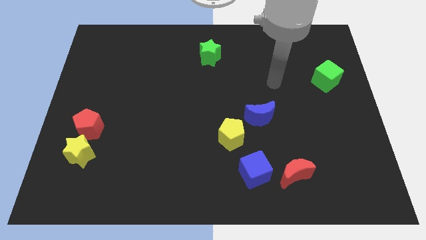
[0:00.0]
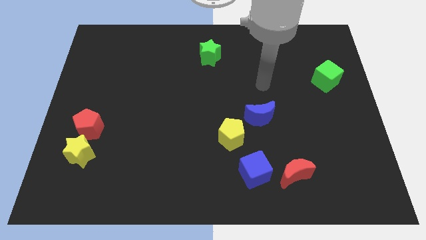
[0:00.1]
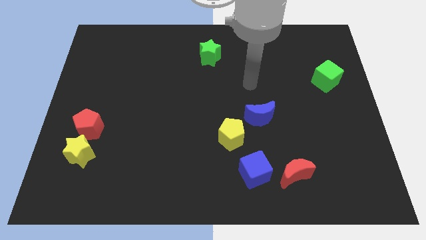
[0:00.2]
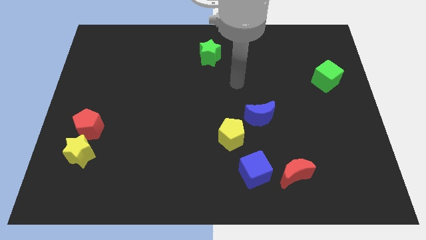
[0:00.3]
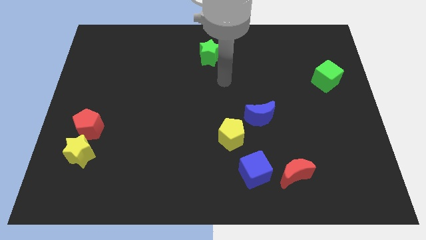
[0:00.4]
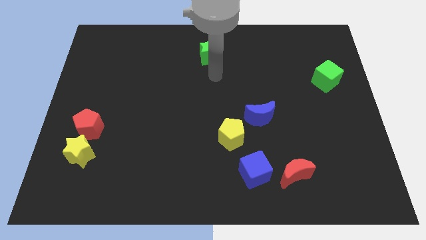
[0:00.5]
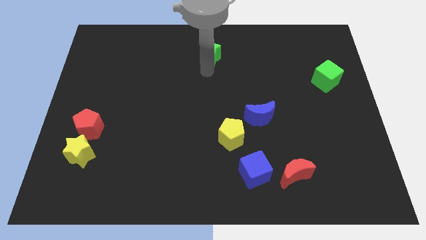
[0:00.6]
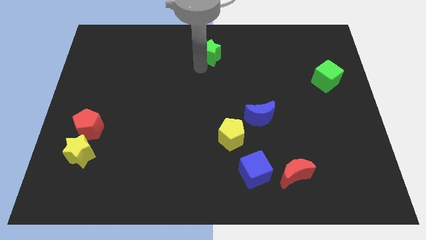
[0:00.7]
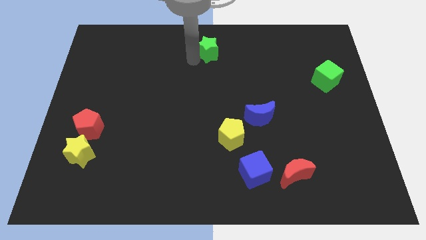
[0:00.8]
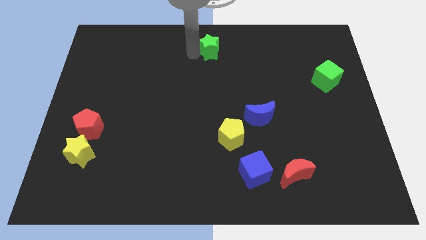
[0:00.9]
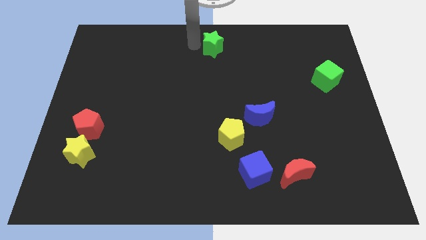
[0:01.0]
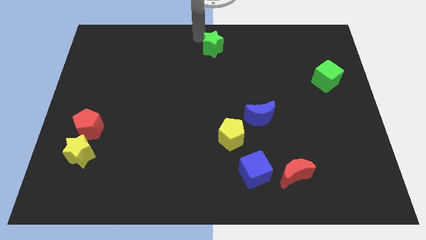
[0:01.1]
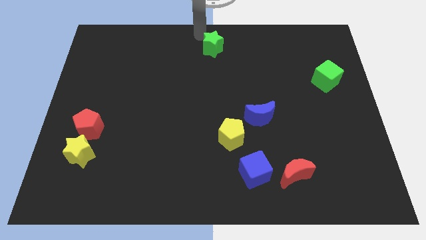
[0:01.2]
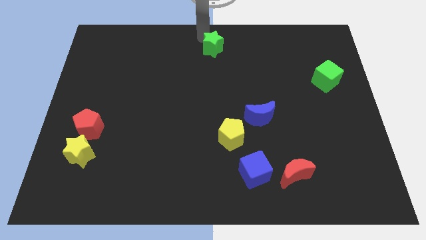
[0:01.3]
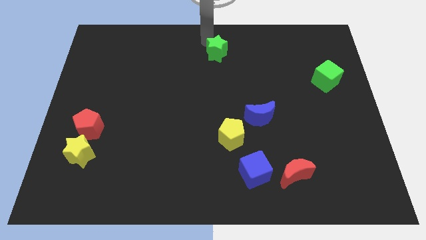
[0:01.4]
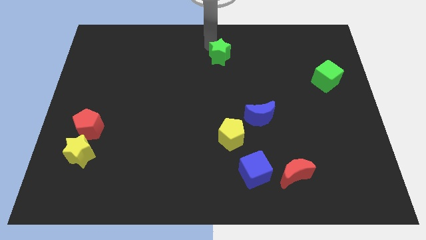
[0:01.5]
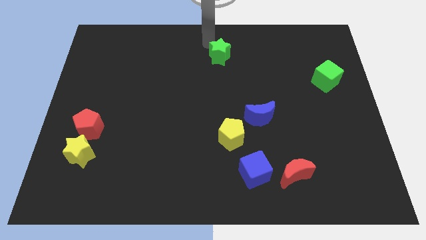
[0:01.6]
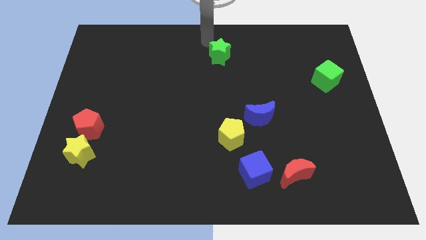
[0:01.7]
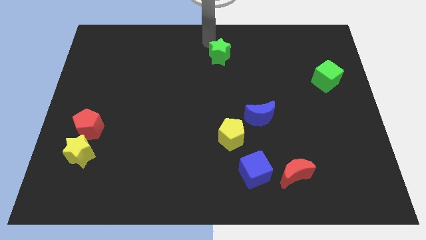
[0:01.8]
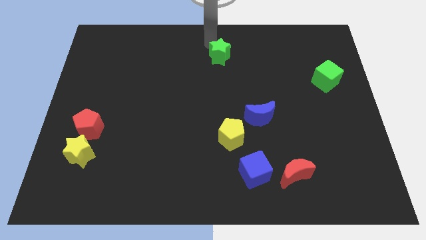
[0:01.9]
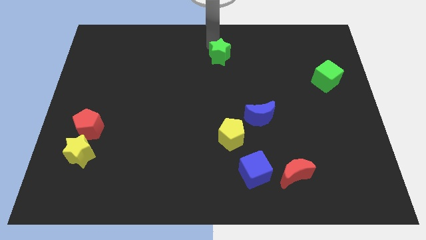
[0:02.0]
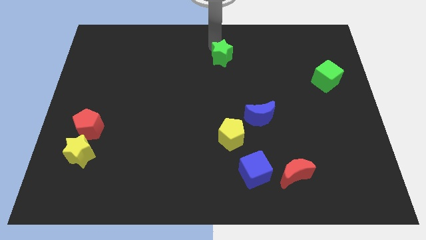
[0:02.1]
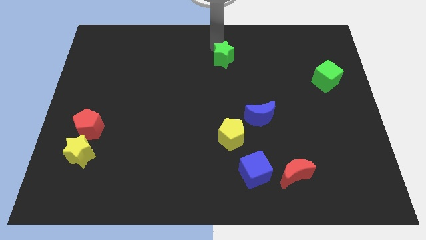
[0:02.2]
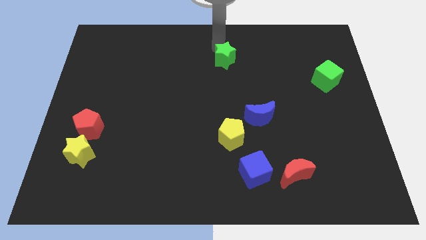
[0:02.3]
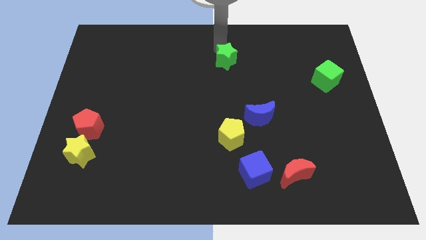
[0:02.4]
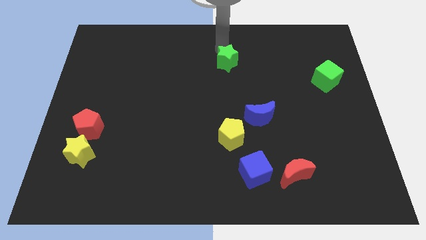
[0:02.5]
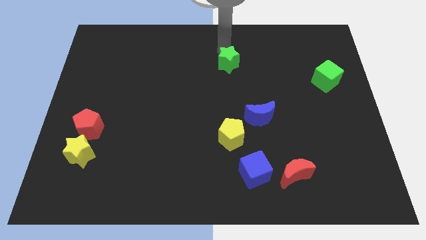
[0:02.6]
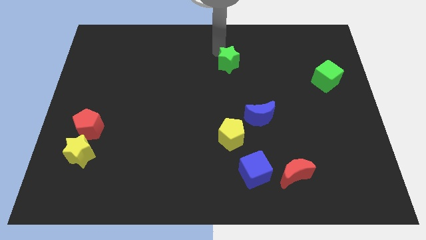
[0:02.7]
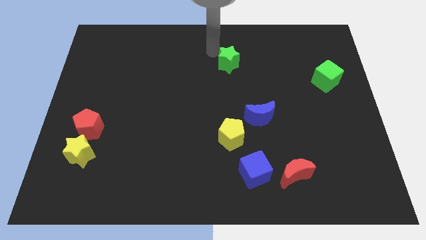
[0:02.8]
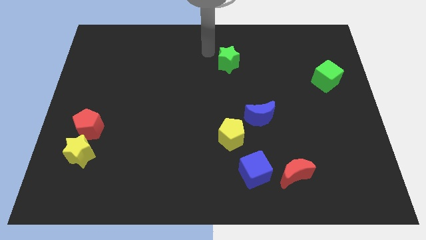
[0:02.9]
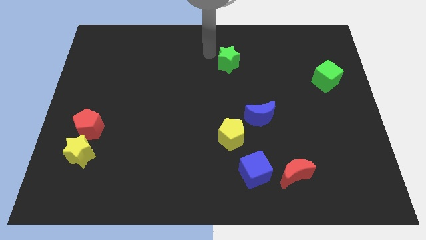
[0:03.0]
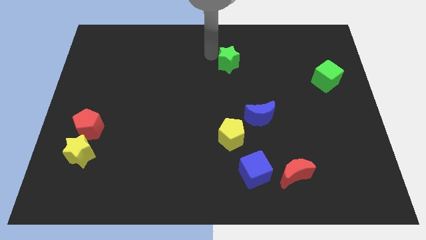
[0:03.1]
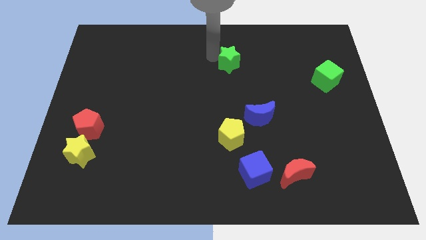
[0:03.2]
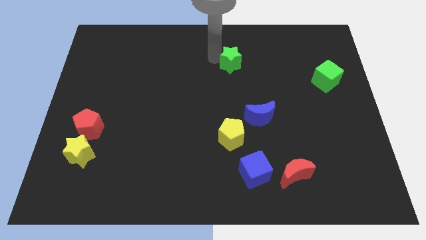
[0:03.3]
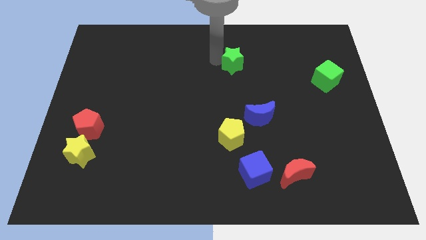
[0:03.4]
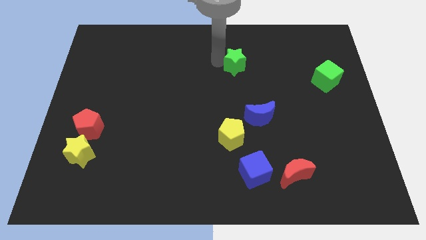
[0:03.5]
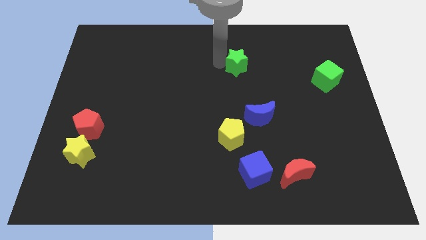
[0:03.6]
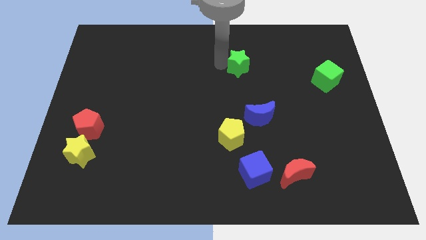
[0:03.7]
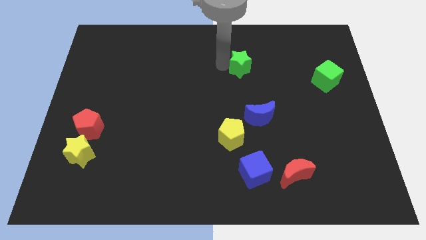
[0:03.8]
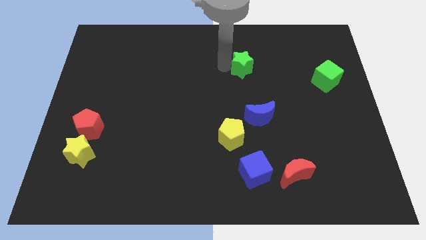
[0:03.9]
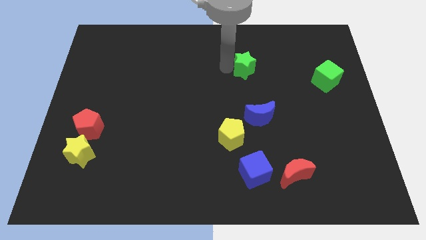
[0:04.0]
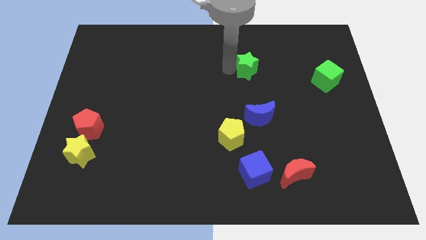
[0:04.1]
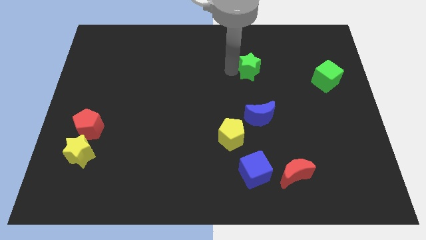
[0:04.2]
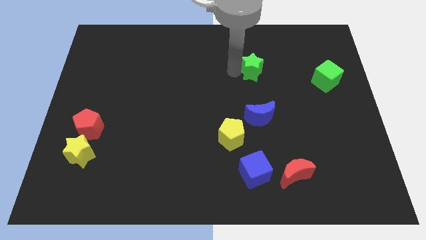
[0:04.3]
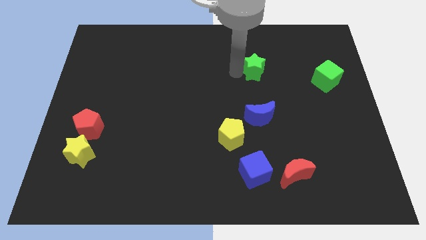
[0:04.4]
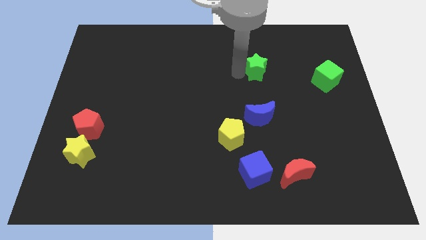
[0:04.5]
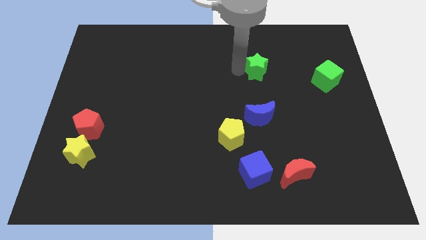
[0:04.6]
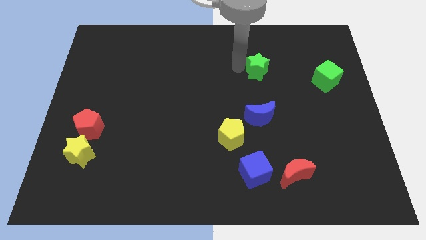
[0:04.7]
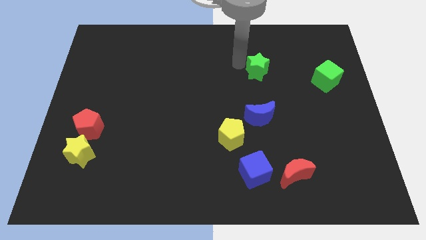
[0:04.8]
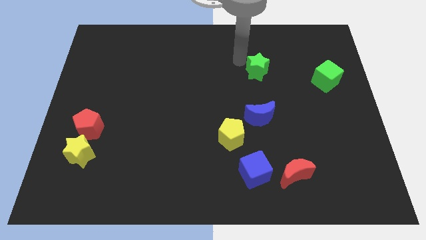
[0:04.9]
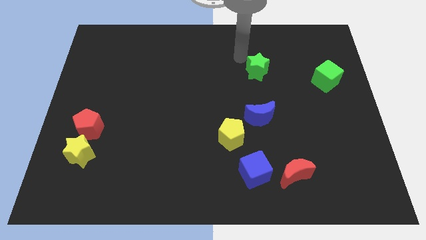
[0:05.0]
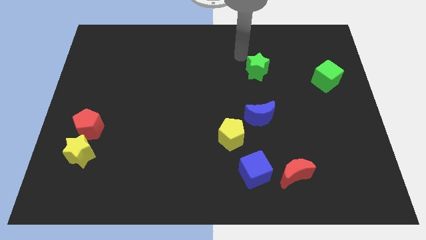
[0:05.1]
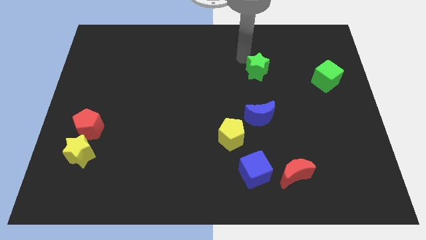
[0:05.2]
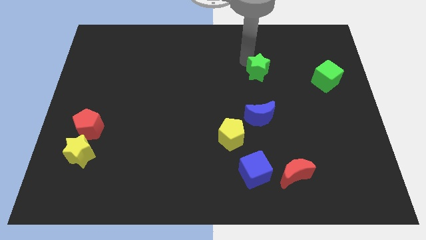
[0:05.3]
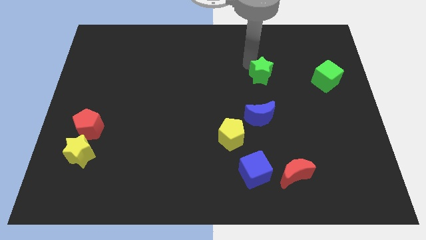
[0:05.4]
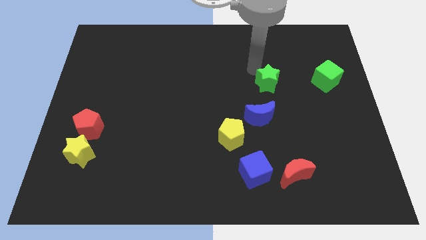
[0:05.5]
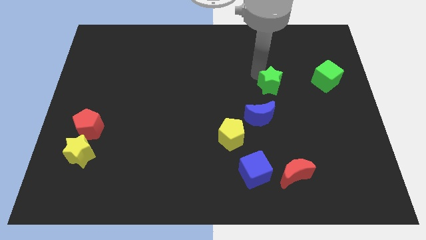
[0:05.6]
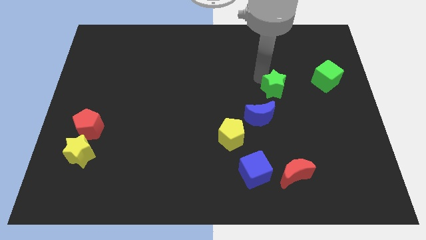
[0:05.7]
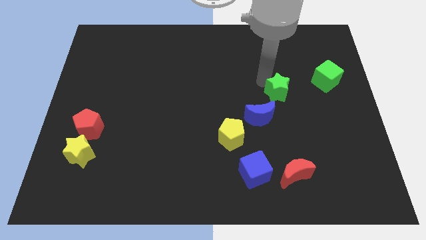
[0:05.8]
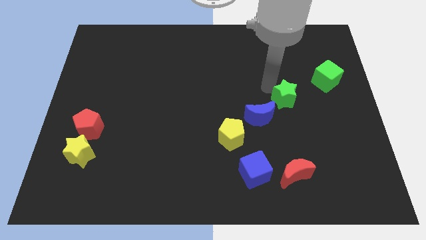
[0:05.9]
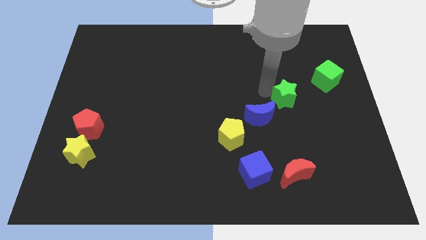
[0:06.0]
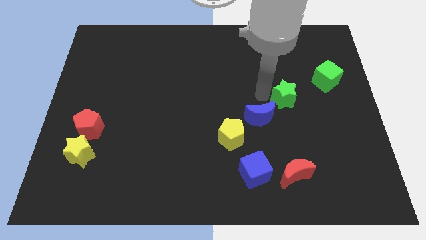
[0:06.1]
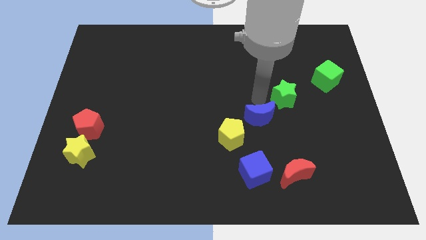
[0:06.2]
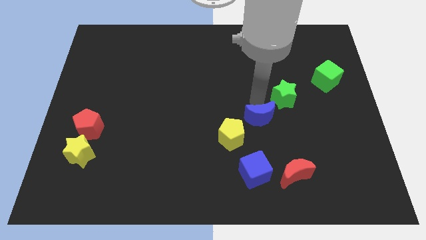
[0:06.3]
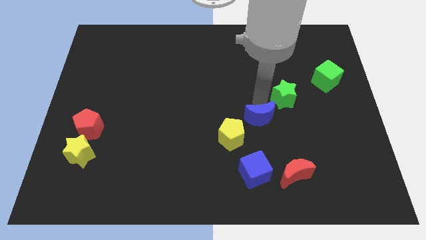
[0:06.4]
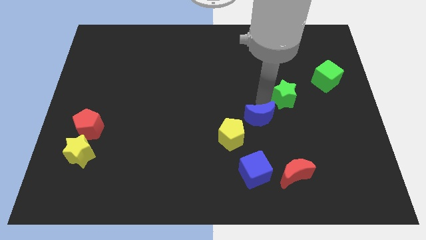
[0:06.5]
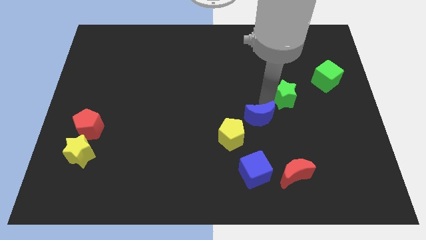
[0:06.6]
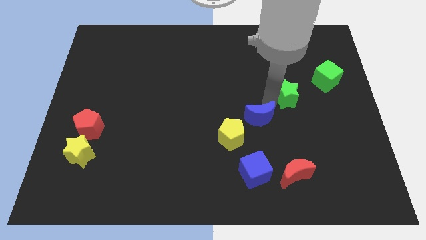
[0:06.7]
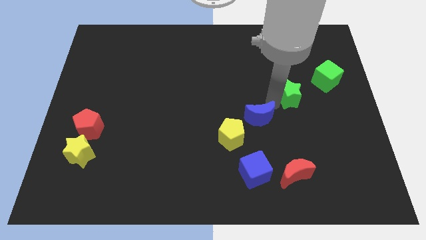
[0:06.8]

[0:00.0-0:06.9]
put the green star to the bottom left side of the green cube
